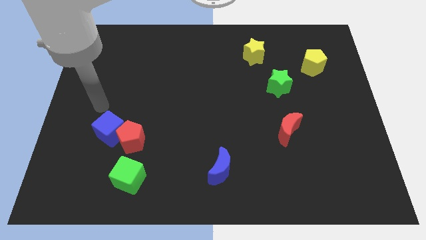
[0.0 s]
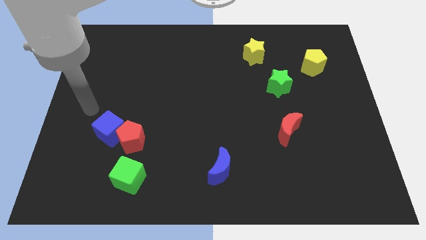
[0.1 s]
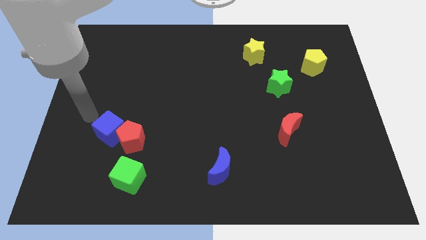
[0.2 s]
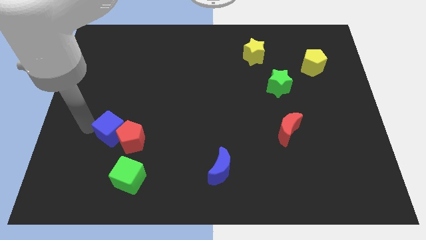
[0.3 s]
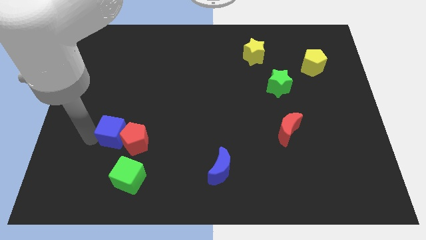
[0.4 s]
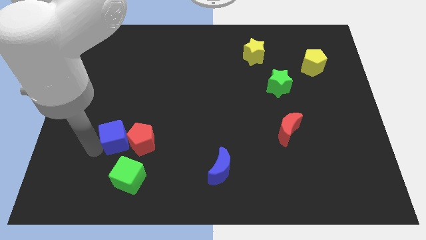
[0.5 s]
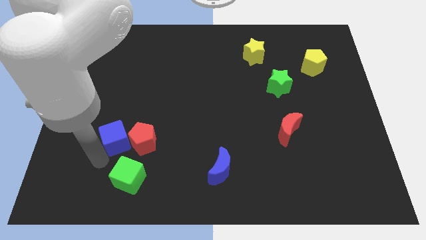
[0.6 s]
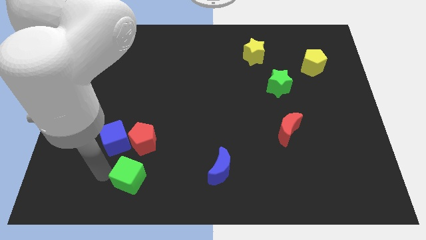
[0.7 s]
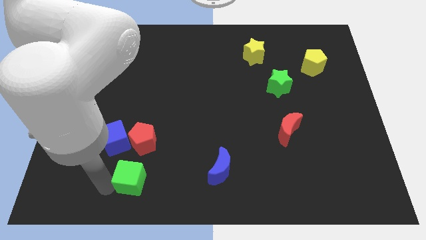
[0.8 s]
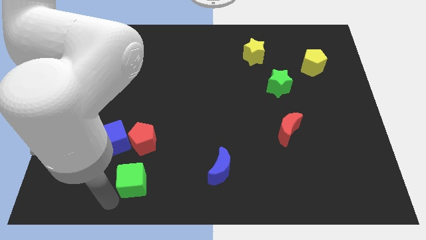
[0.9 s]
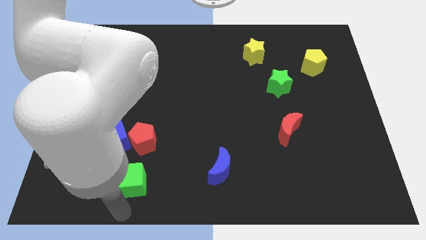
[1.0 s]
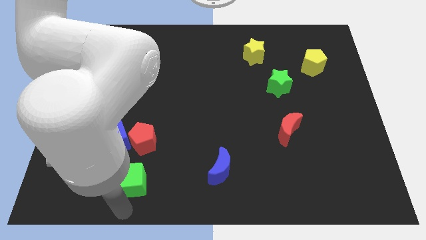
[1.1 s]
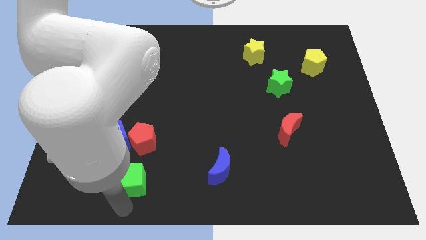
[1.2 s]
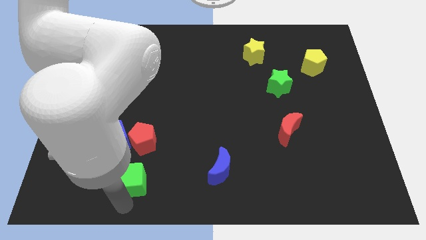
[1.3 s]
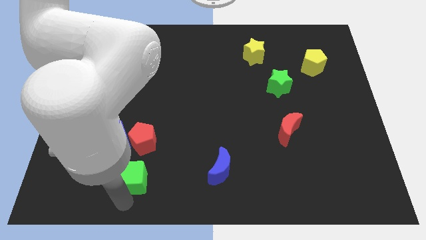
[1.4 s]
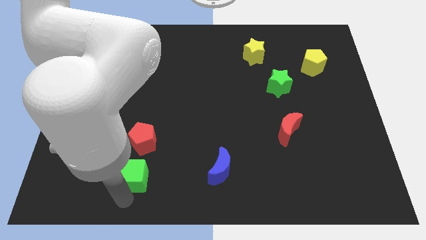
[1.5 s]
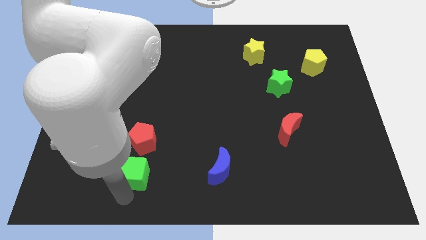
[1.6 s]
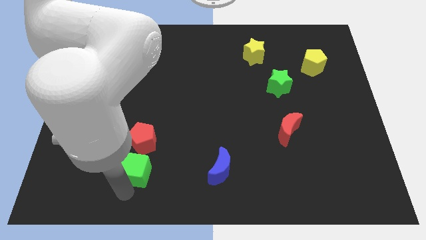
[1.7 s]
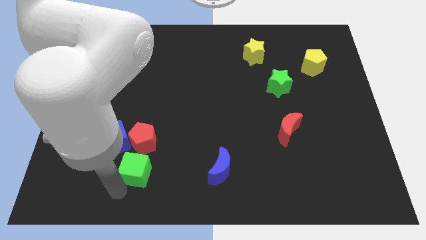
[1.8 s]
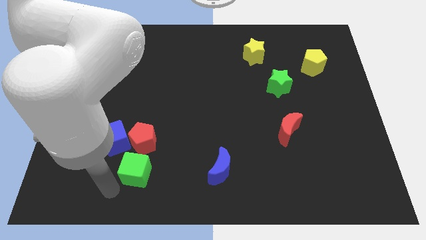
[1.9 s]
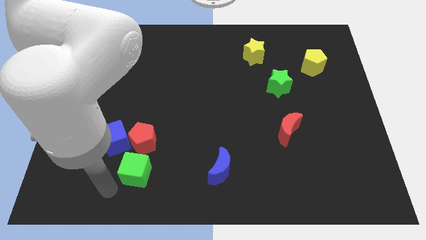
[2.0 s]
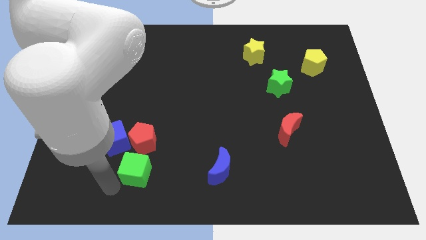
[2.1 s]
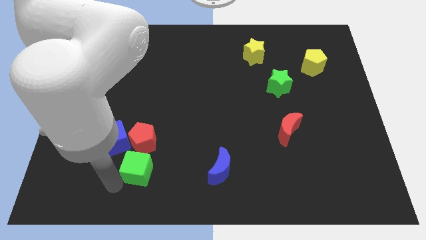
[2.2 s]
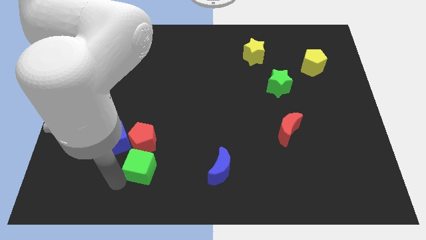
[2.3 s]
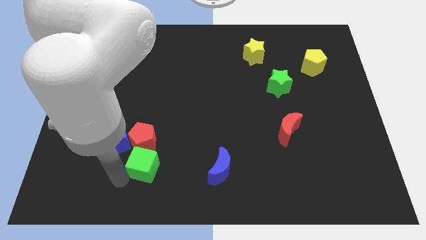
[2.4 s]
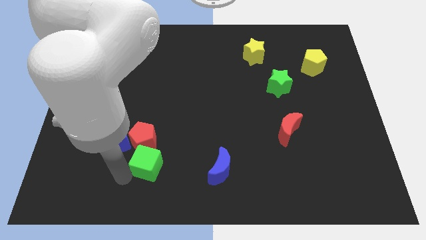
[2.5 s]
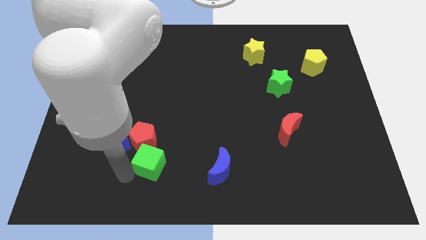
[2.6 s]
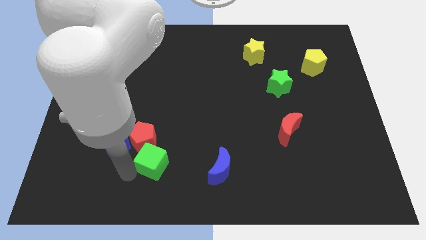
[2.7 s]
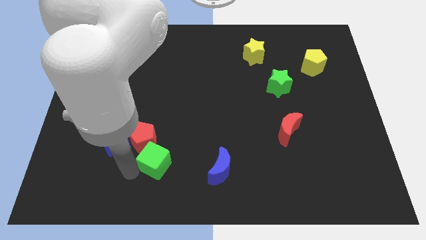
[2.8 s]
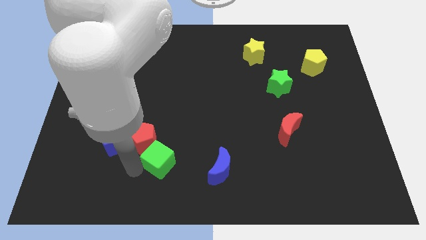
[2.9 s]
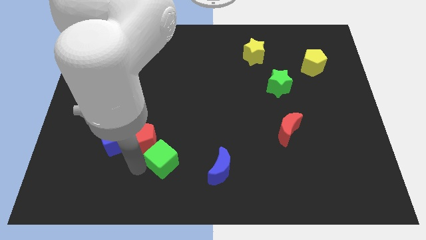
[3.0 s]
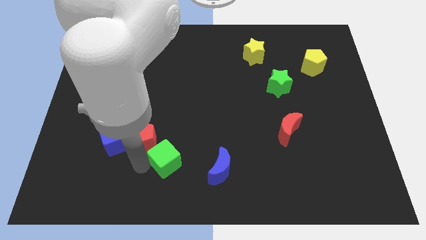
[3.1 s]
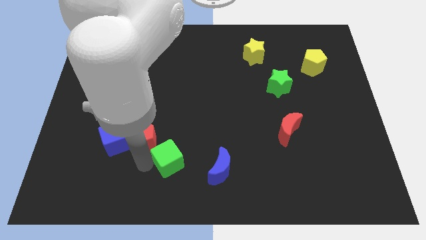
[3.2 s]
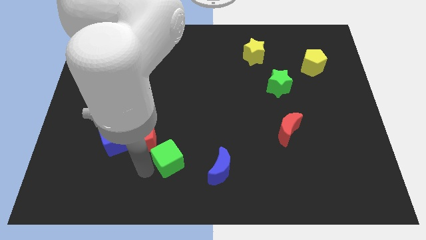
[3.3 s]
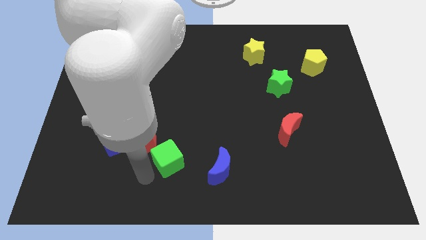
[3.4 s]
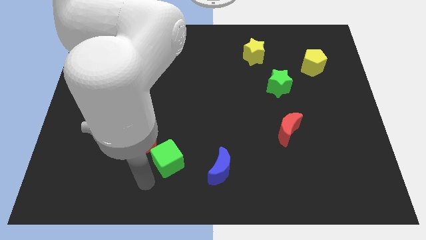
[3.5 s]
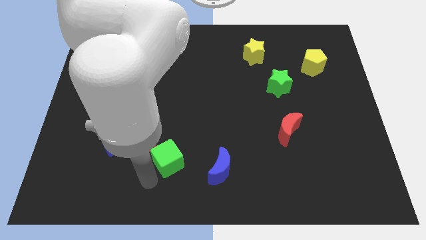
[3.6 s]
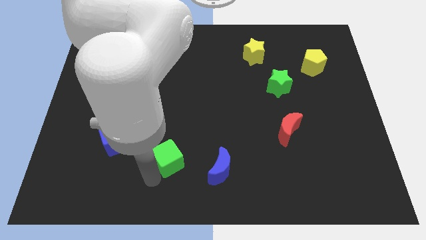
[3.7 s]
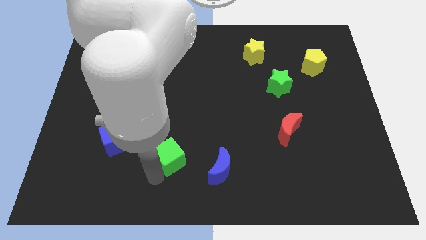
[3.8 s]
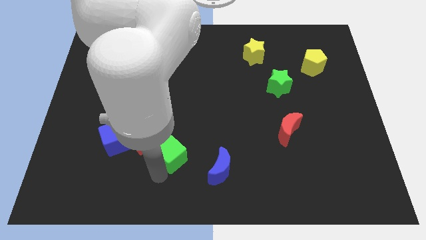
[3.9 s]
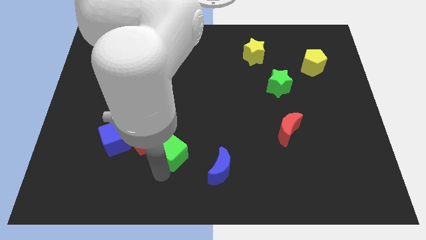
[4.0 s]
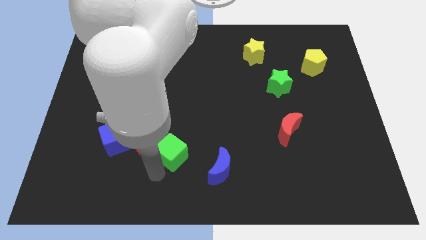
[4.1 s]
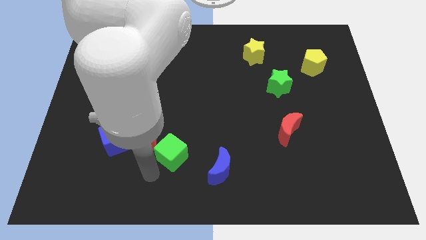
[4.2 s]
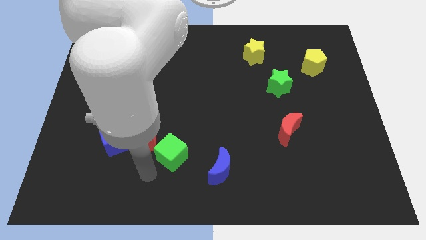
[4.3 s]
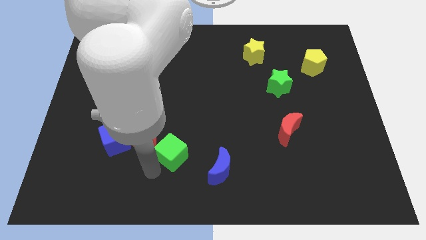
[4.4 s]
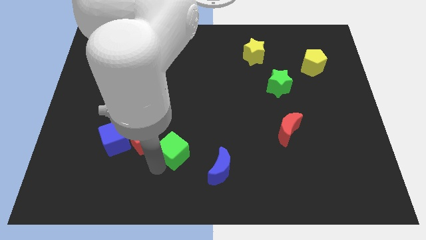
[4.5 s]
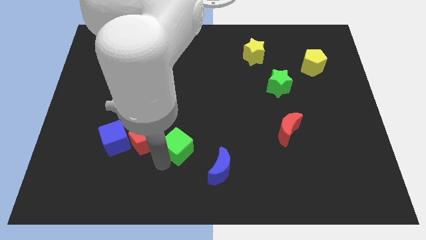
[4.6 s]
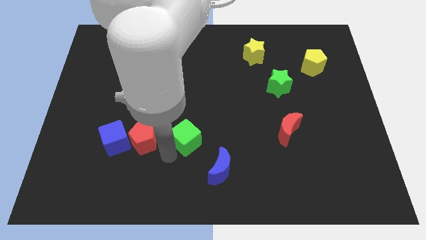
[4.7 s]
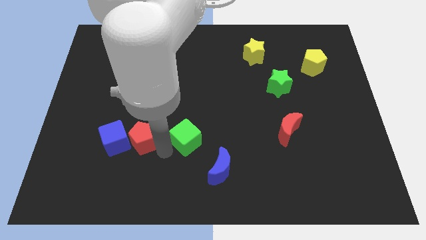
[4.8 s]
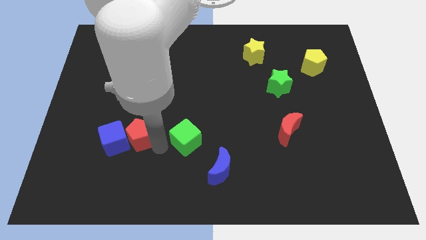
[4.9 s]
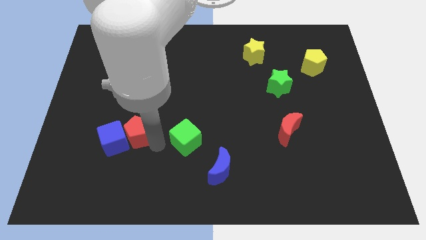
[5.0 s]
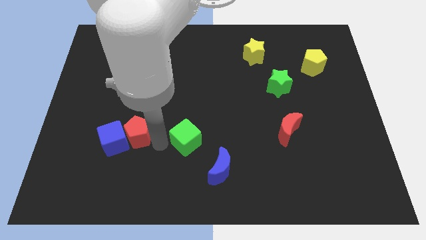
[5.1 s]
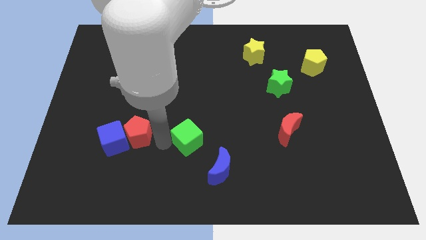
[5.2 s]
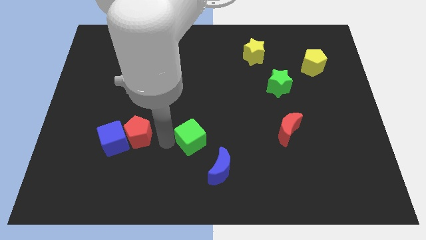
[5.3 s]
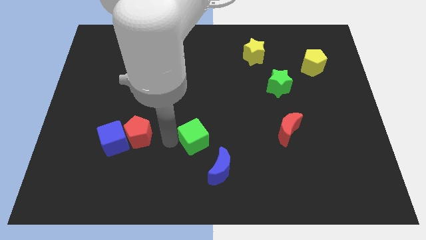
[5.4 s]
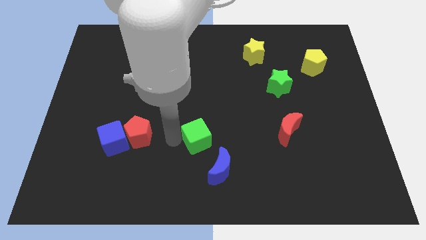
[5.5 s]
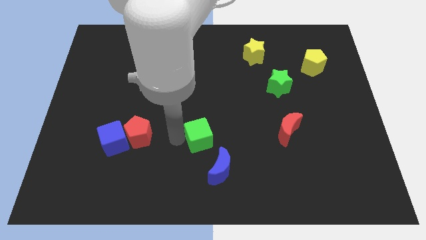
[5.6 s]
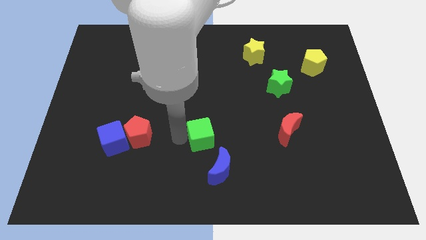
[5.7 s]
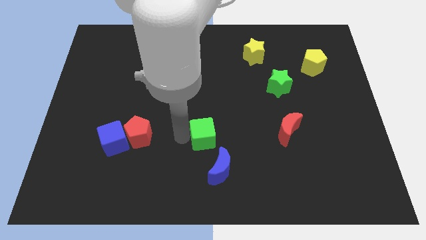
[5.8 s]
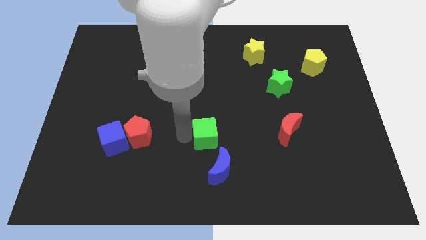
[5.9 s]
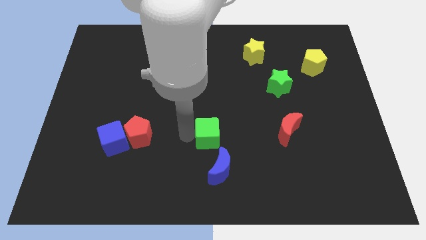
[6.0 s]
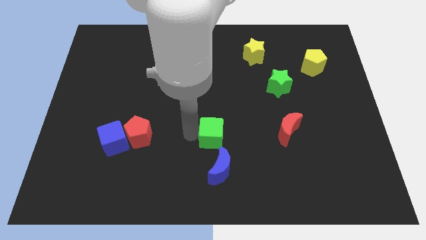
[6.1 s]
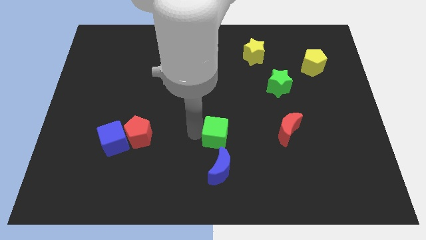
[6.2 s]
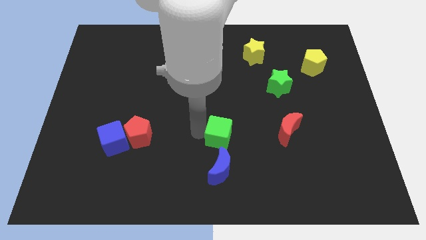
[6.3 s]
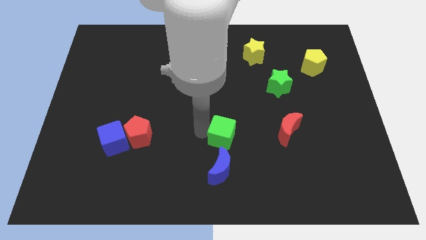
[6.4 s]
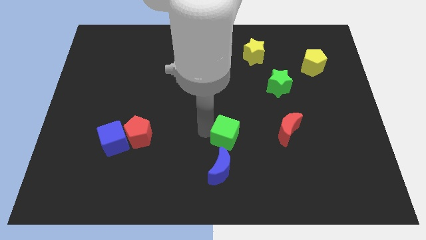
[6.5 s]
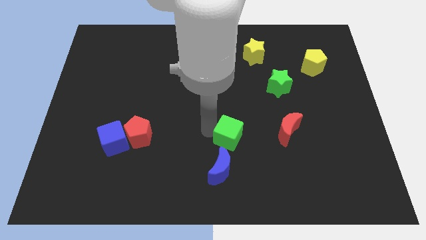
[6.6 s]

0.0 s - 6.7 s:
put the green cube to the top right side of the blue moon

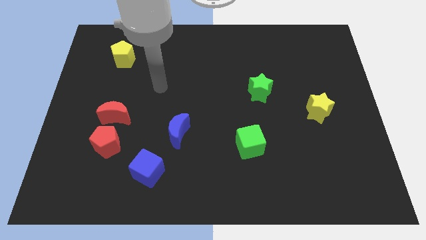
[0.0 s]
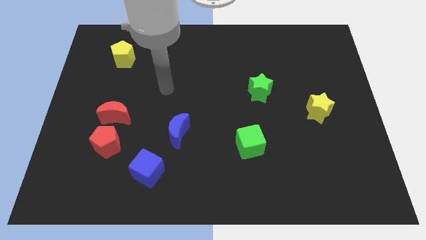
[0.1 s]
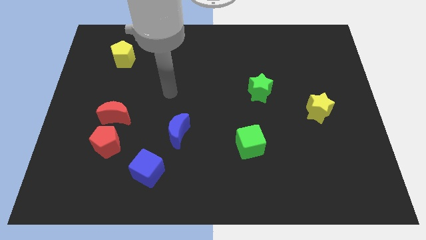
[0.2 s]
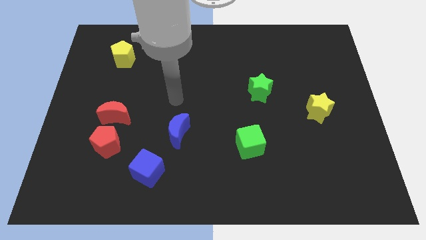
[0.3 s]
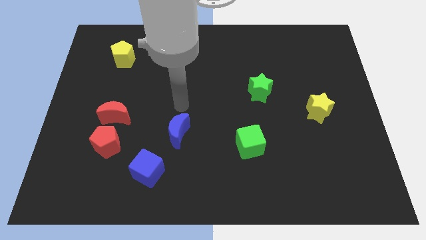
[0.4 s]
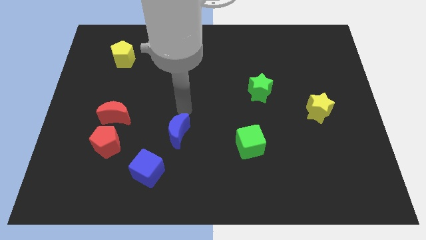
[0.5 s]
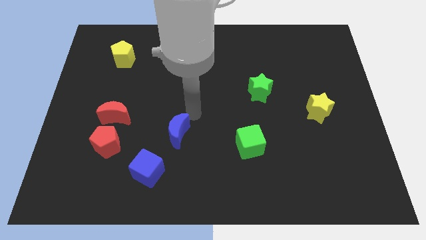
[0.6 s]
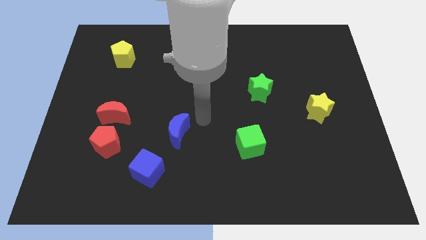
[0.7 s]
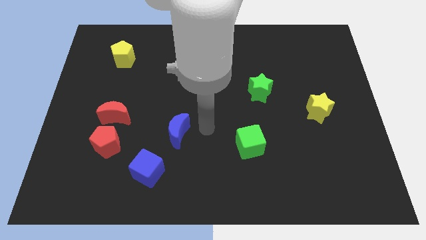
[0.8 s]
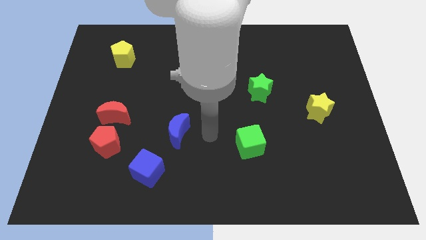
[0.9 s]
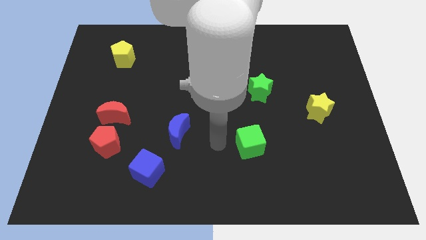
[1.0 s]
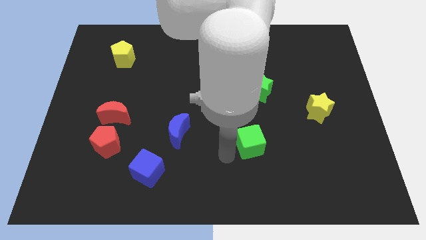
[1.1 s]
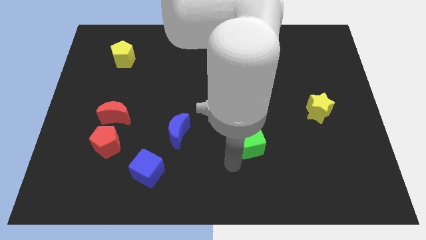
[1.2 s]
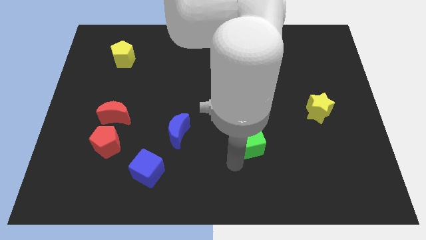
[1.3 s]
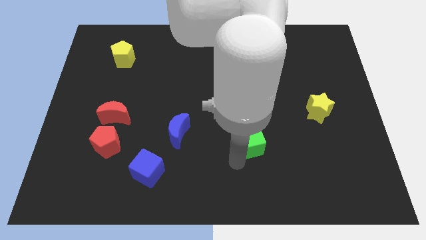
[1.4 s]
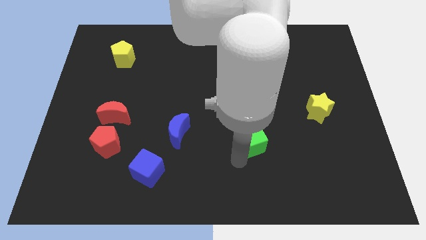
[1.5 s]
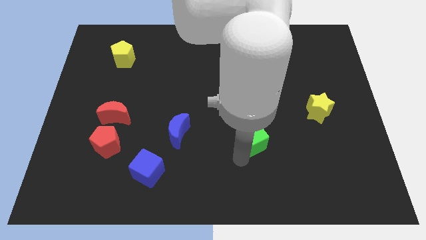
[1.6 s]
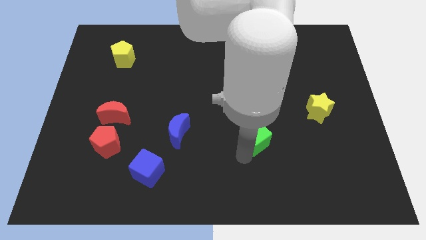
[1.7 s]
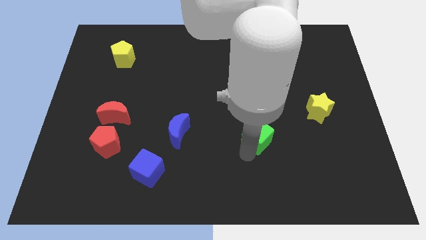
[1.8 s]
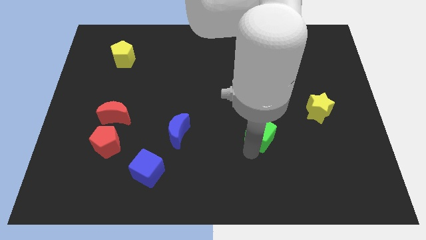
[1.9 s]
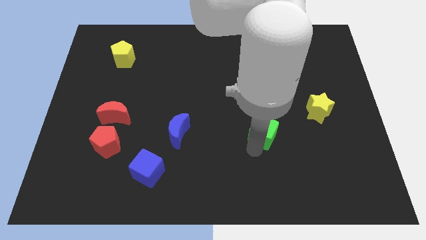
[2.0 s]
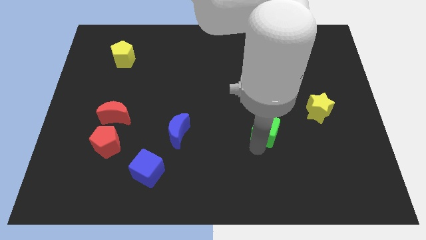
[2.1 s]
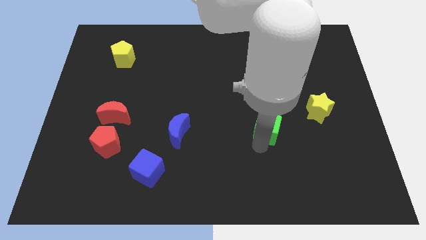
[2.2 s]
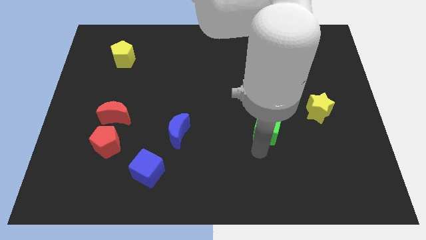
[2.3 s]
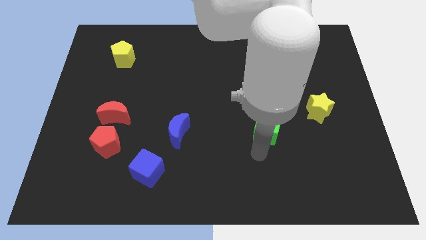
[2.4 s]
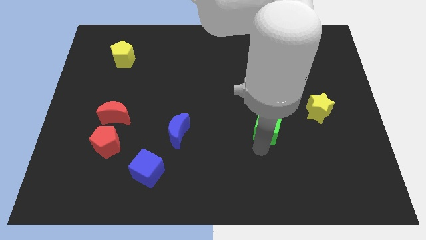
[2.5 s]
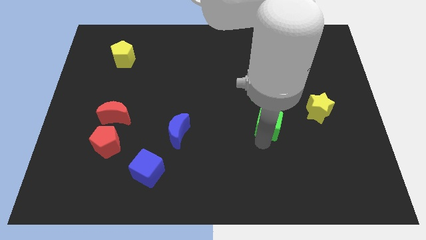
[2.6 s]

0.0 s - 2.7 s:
put the green cube left of the yellow star
